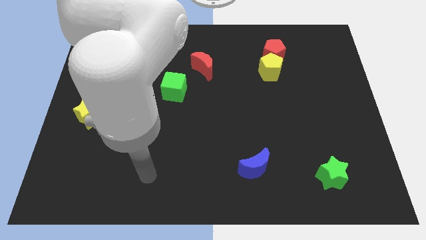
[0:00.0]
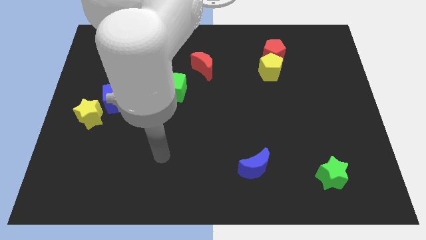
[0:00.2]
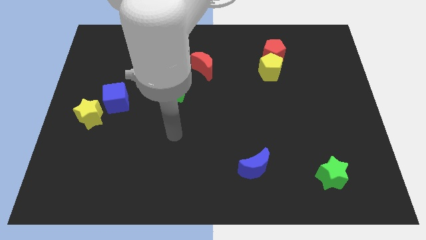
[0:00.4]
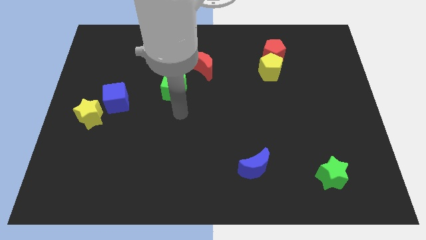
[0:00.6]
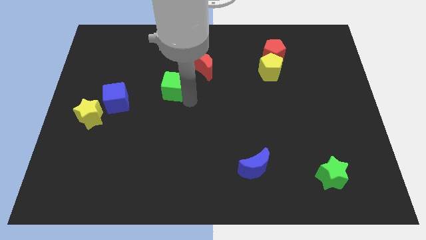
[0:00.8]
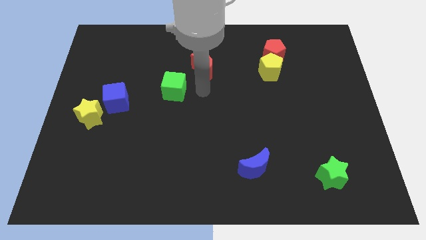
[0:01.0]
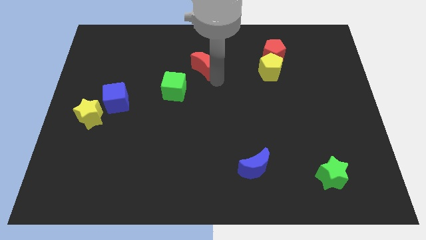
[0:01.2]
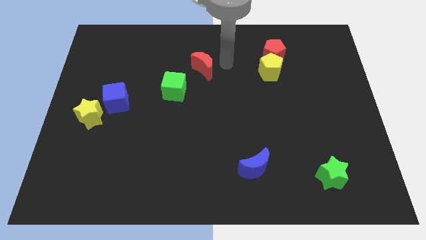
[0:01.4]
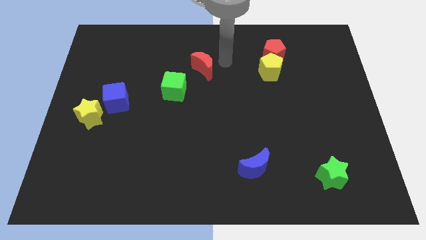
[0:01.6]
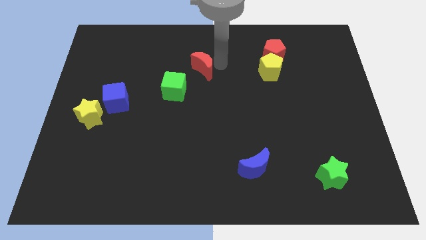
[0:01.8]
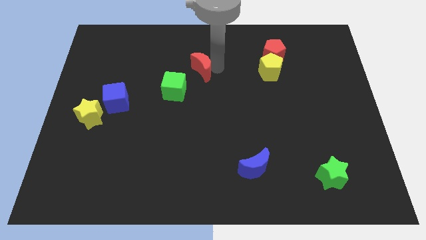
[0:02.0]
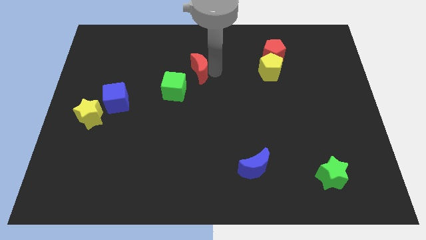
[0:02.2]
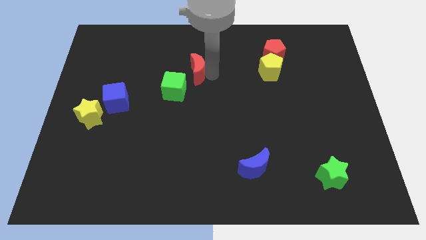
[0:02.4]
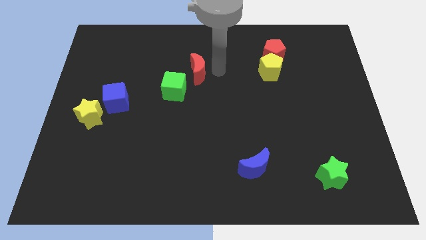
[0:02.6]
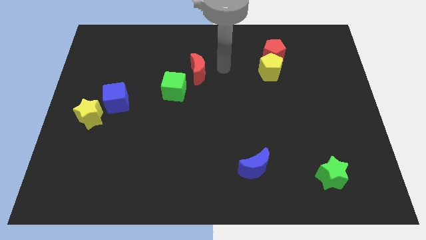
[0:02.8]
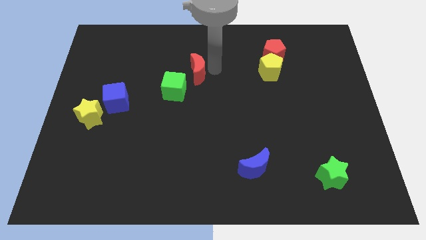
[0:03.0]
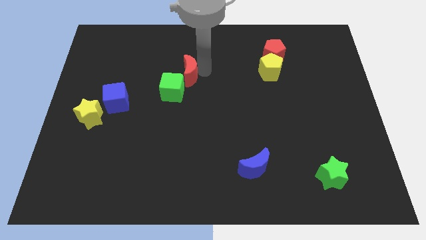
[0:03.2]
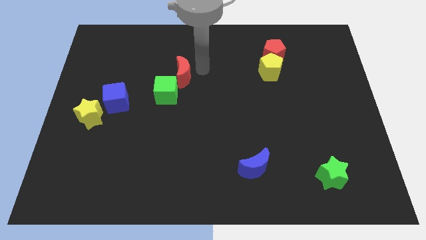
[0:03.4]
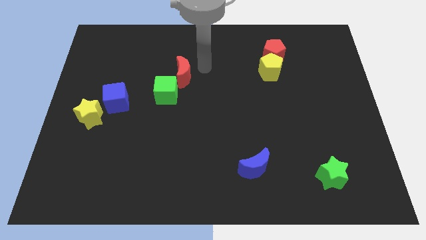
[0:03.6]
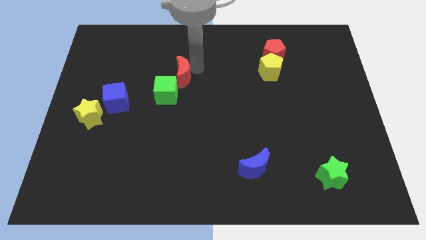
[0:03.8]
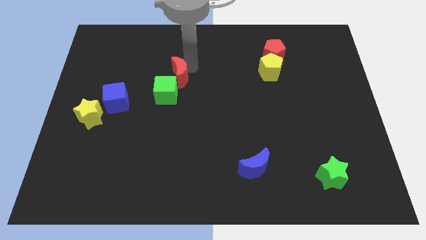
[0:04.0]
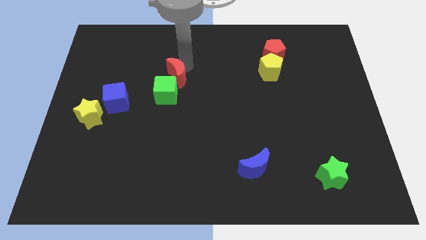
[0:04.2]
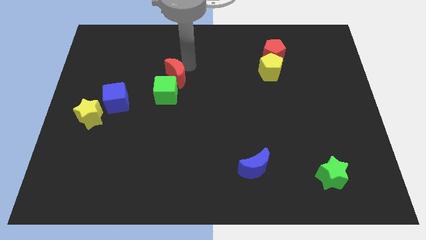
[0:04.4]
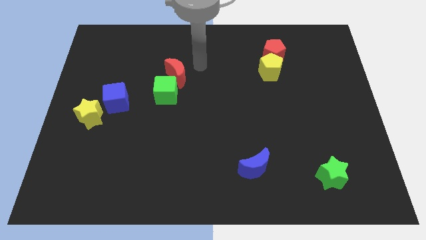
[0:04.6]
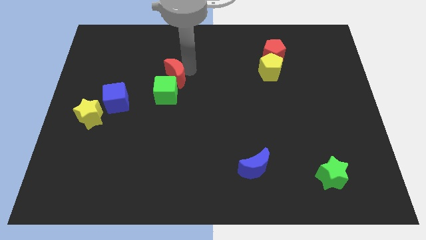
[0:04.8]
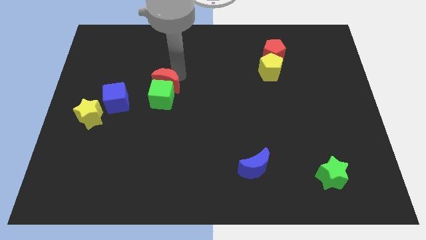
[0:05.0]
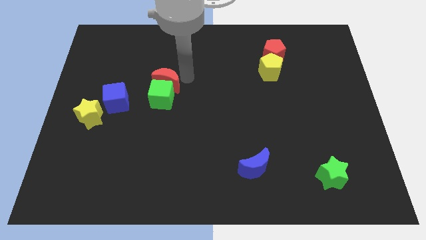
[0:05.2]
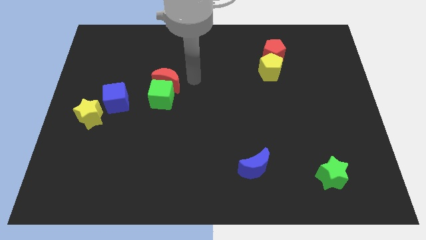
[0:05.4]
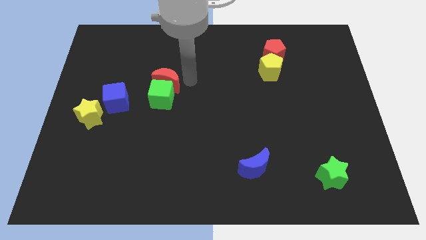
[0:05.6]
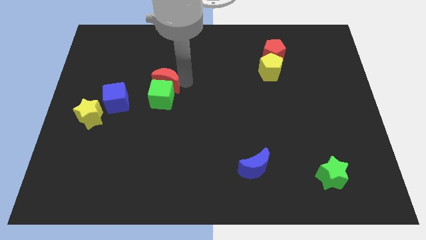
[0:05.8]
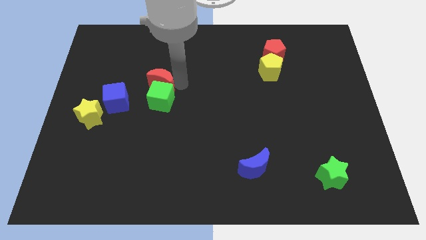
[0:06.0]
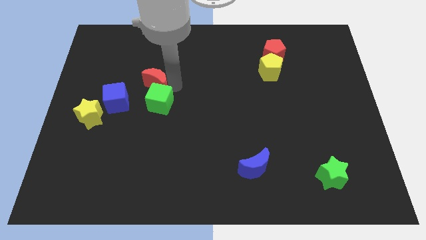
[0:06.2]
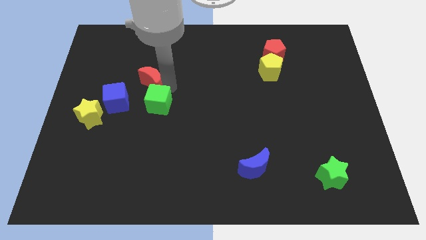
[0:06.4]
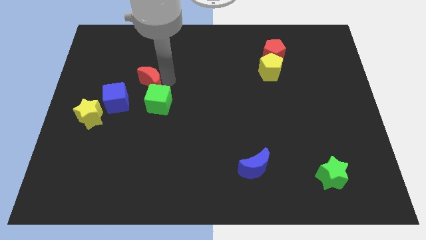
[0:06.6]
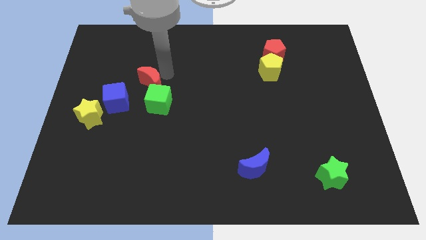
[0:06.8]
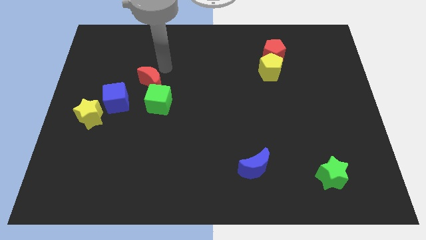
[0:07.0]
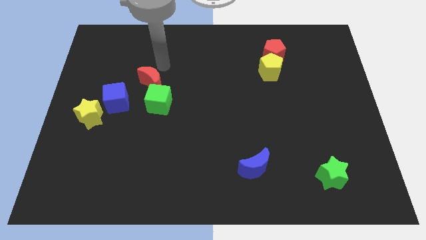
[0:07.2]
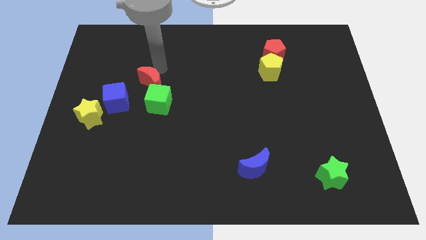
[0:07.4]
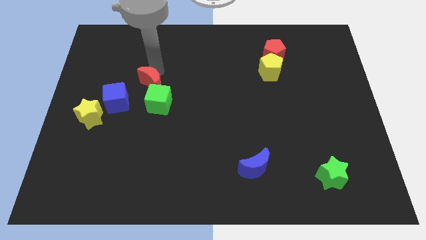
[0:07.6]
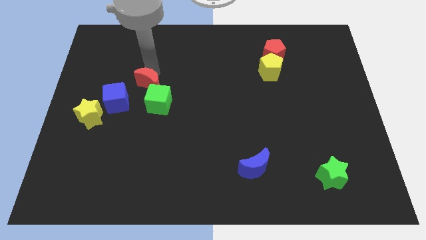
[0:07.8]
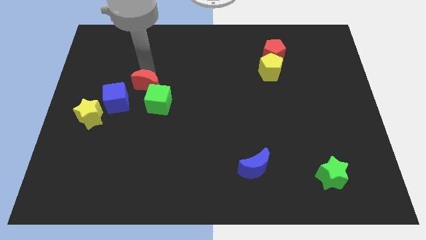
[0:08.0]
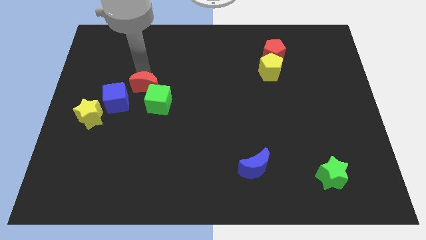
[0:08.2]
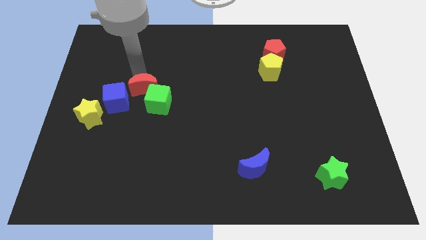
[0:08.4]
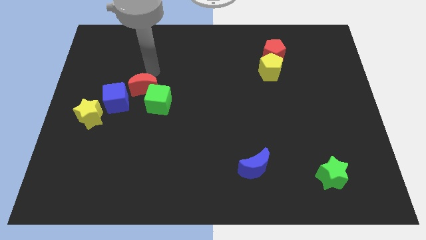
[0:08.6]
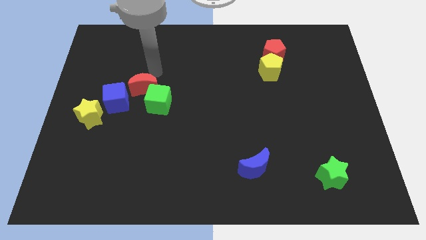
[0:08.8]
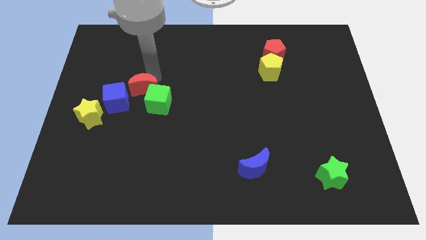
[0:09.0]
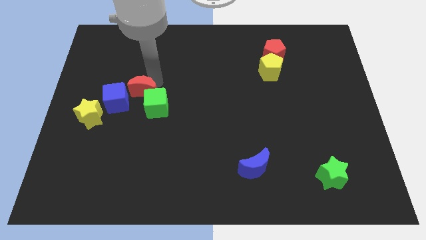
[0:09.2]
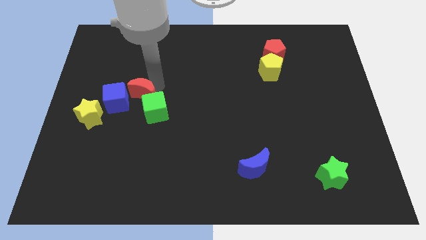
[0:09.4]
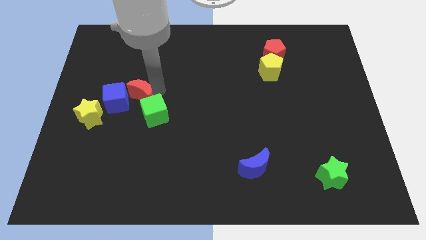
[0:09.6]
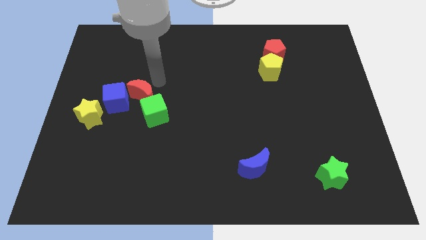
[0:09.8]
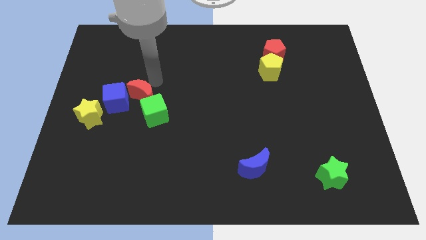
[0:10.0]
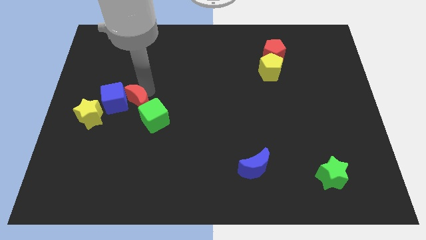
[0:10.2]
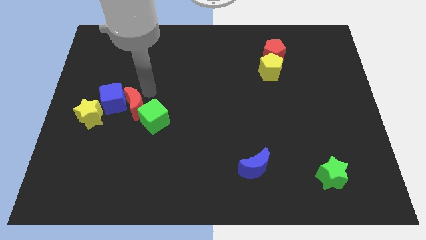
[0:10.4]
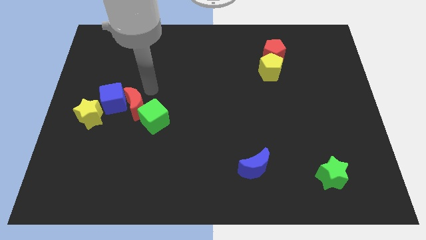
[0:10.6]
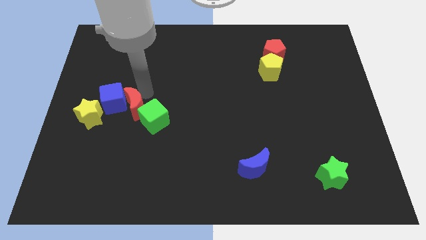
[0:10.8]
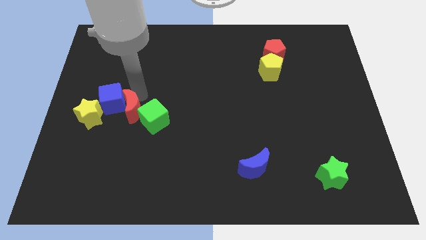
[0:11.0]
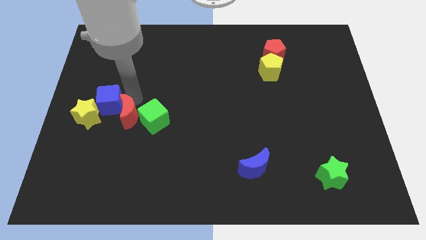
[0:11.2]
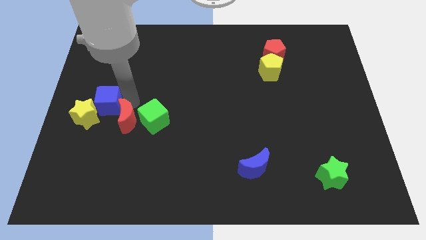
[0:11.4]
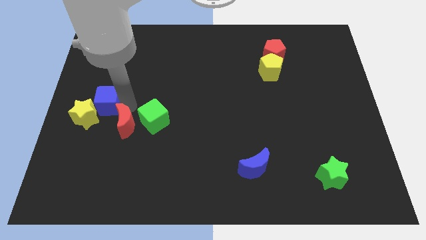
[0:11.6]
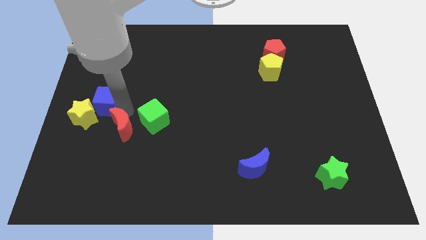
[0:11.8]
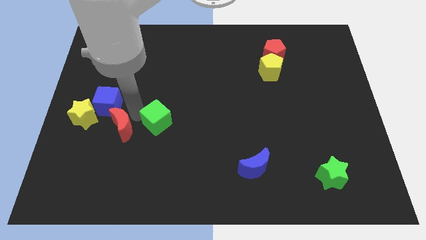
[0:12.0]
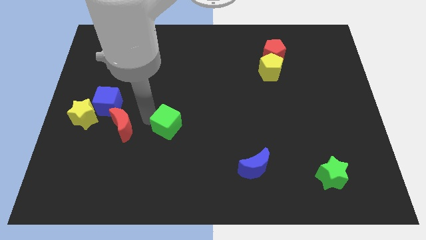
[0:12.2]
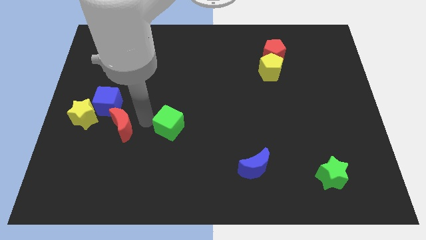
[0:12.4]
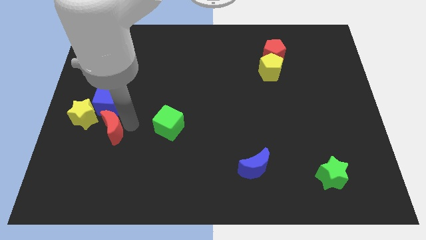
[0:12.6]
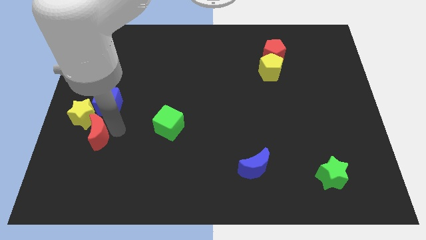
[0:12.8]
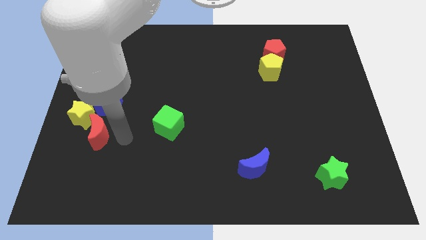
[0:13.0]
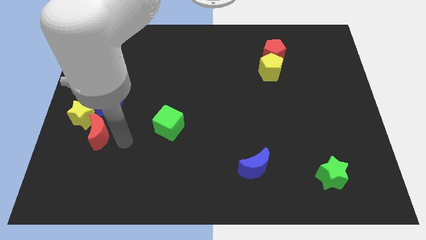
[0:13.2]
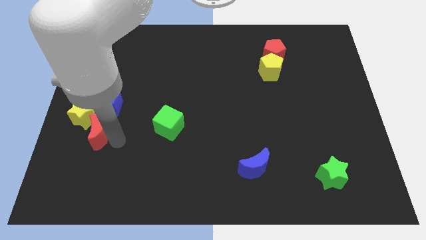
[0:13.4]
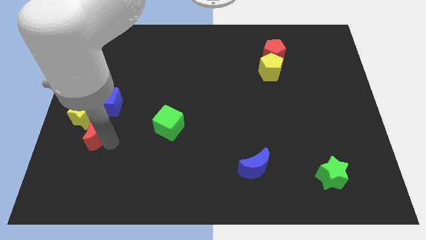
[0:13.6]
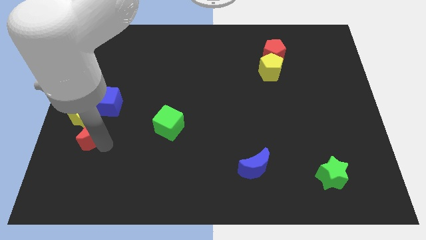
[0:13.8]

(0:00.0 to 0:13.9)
move the red moon to the bottom left side of the blue cube

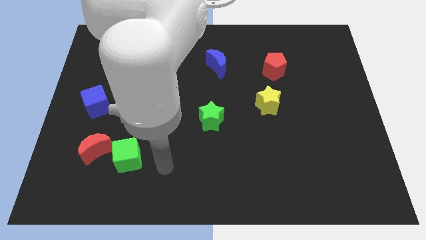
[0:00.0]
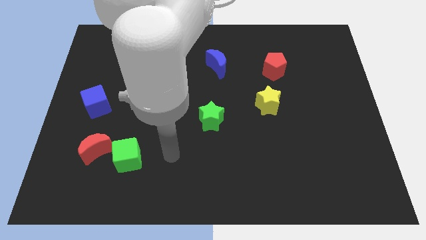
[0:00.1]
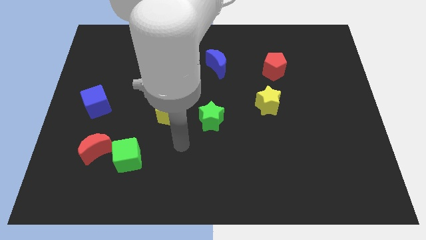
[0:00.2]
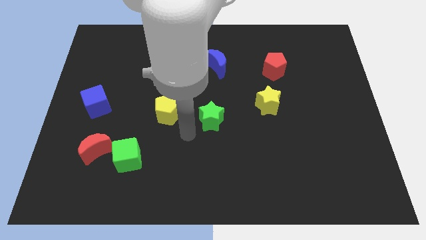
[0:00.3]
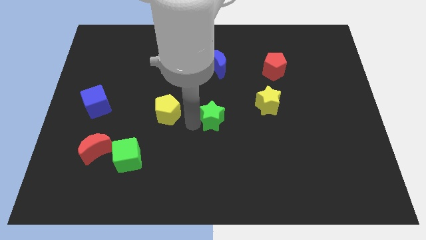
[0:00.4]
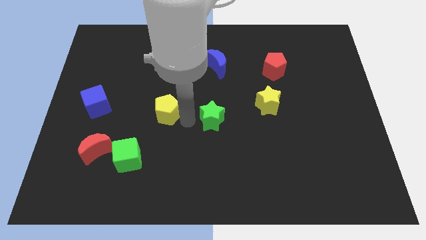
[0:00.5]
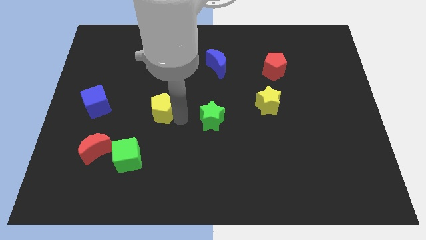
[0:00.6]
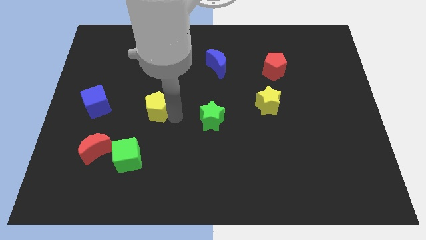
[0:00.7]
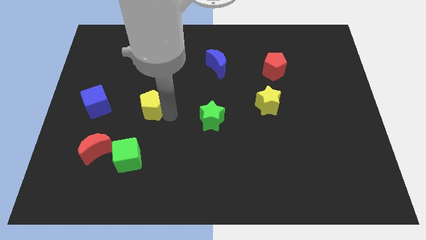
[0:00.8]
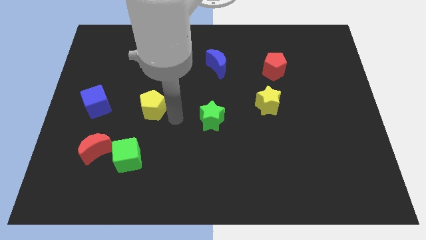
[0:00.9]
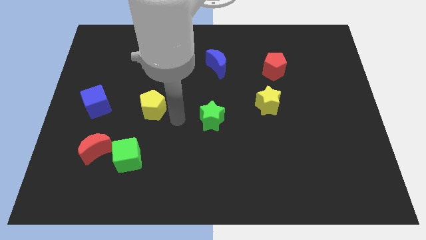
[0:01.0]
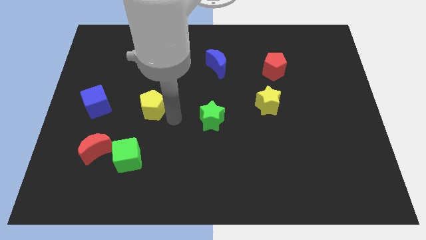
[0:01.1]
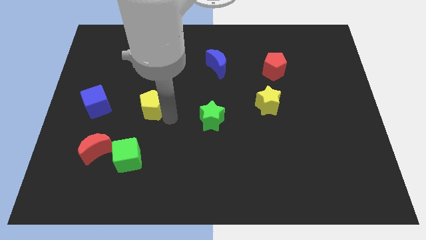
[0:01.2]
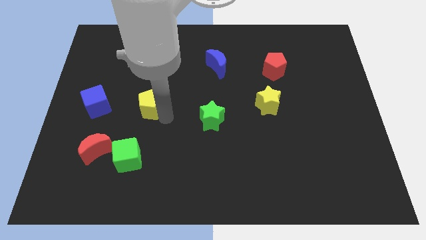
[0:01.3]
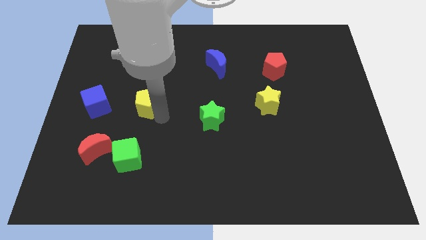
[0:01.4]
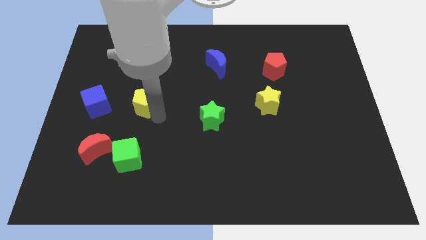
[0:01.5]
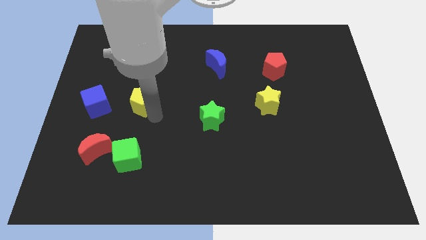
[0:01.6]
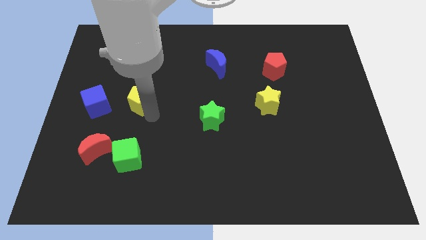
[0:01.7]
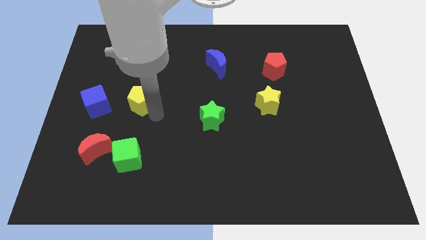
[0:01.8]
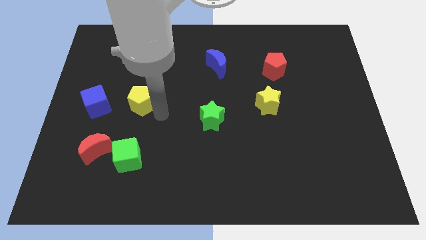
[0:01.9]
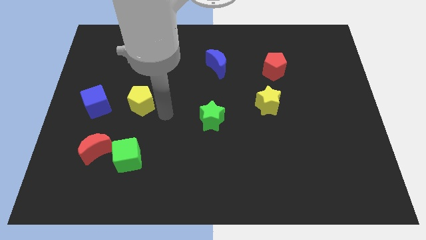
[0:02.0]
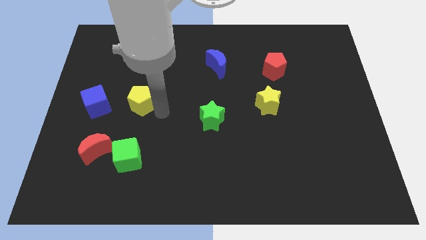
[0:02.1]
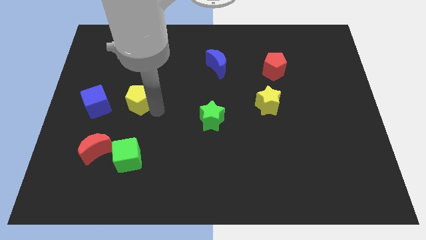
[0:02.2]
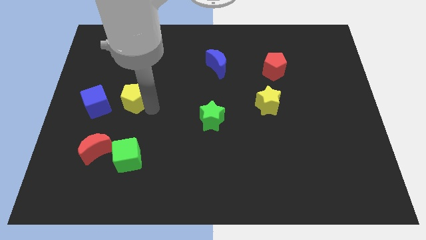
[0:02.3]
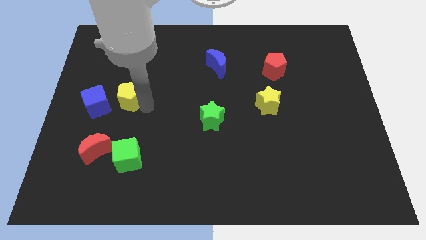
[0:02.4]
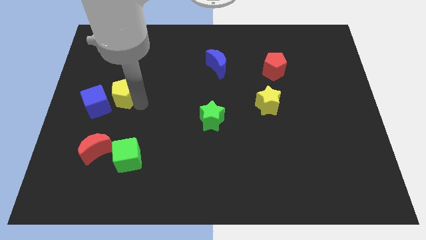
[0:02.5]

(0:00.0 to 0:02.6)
slide the yellow pentagon to the top of the red moon
